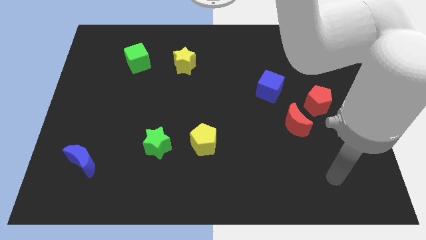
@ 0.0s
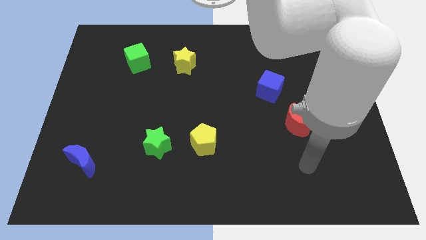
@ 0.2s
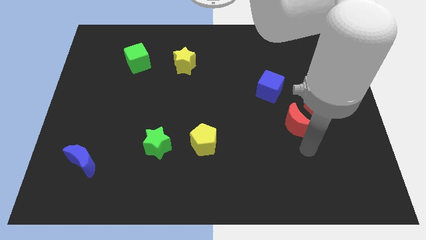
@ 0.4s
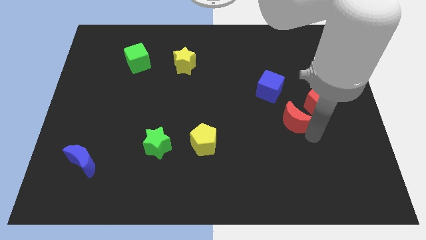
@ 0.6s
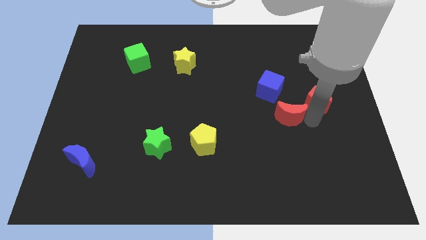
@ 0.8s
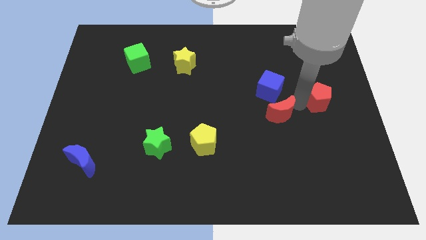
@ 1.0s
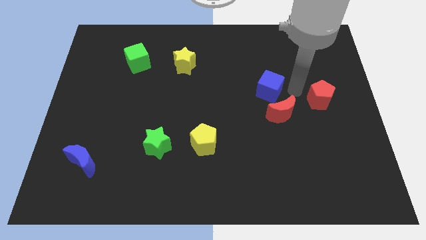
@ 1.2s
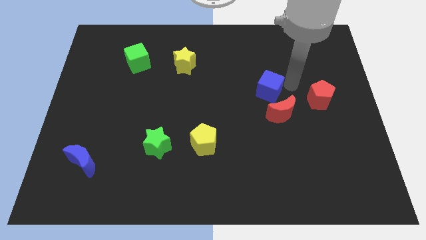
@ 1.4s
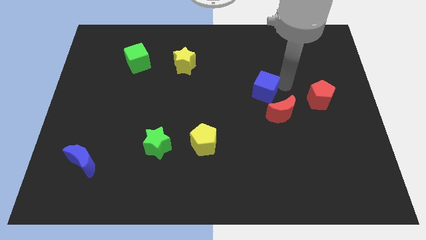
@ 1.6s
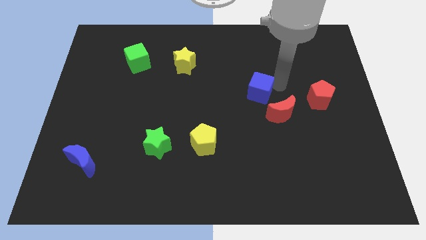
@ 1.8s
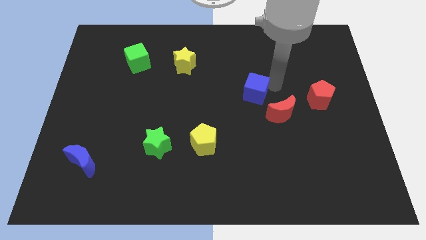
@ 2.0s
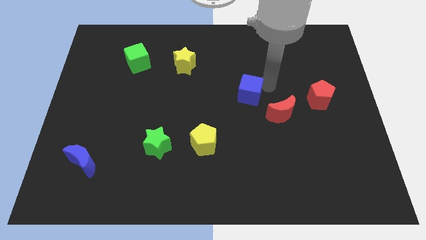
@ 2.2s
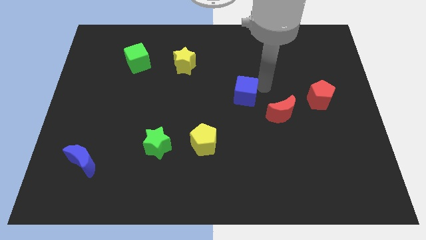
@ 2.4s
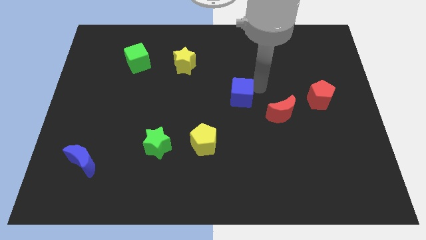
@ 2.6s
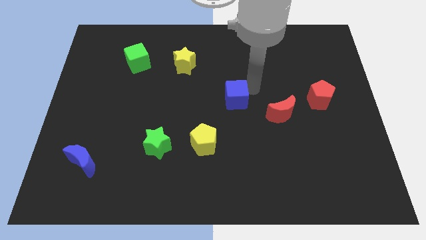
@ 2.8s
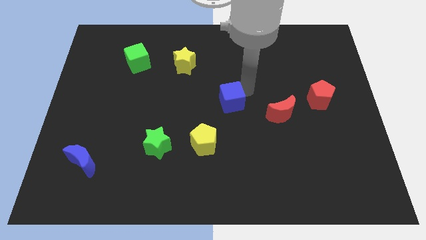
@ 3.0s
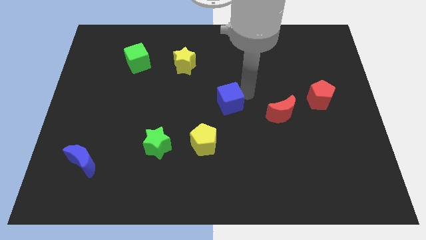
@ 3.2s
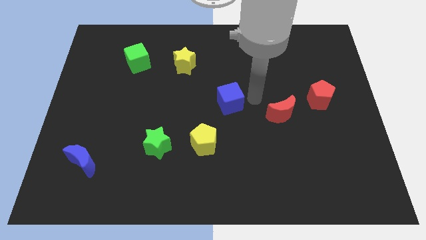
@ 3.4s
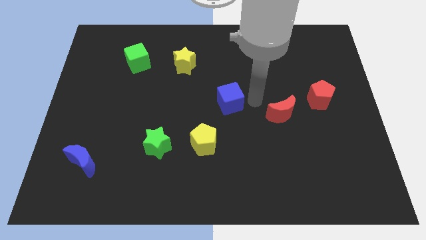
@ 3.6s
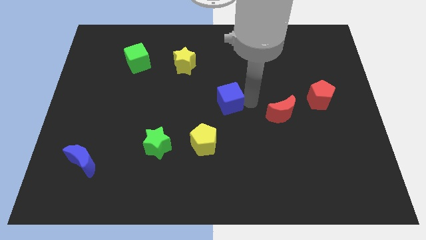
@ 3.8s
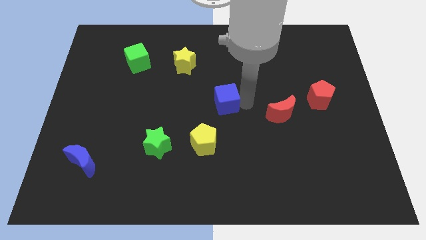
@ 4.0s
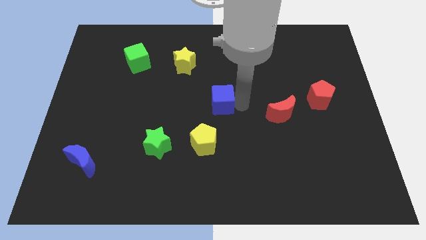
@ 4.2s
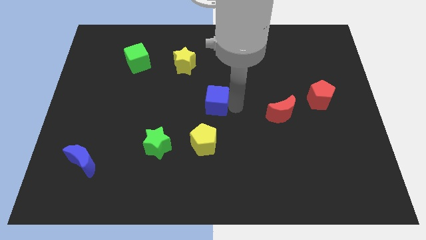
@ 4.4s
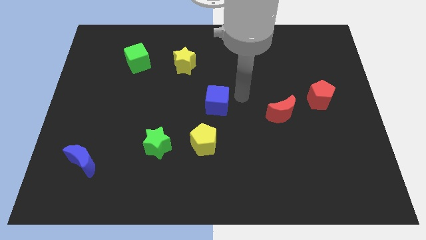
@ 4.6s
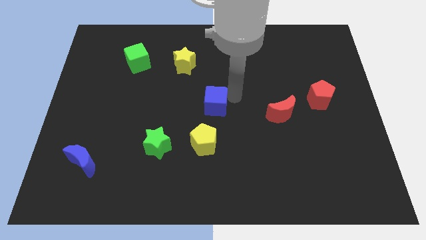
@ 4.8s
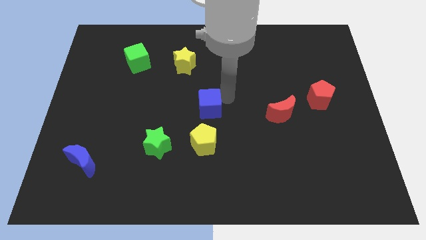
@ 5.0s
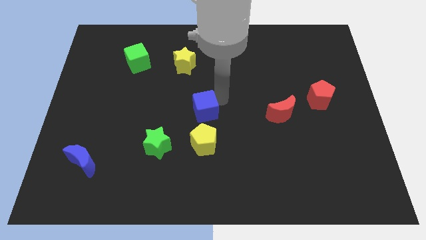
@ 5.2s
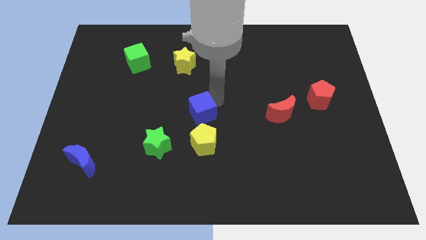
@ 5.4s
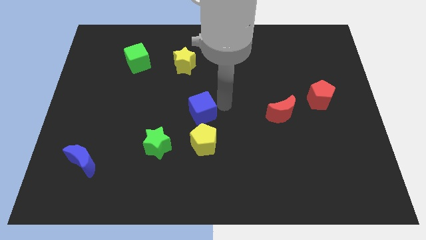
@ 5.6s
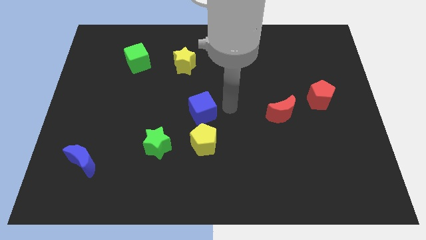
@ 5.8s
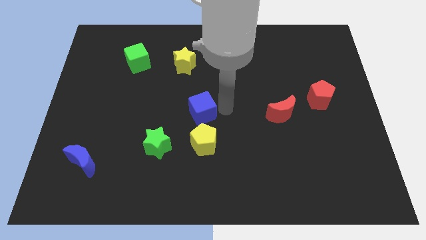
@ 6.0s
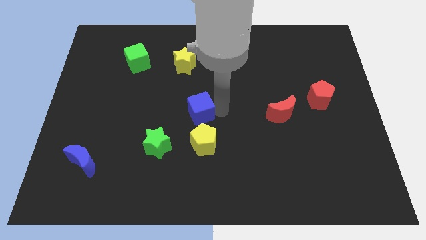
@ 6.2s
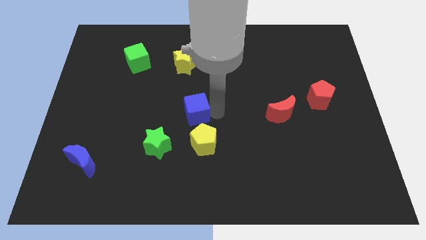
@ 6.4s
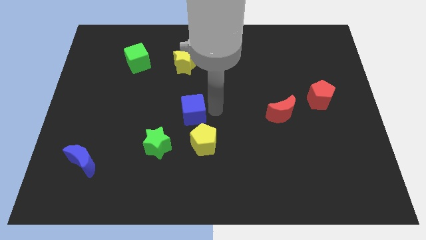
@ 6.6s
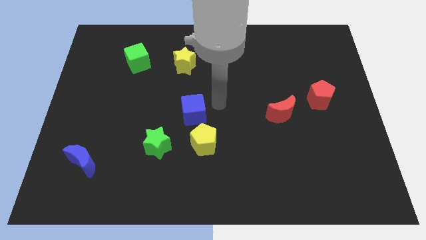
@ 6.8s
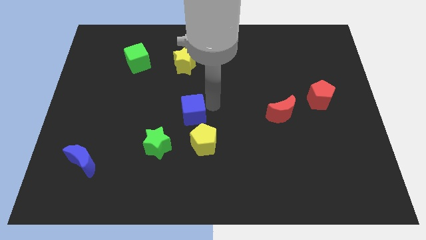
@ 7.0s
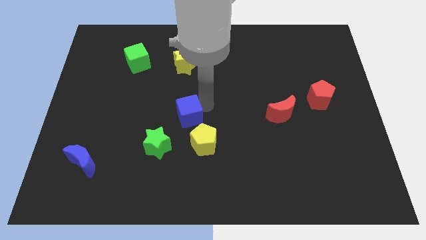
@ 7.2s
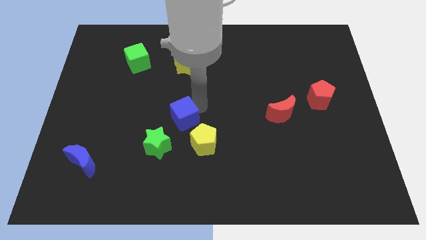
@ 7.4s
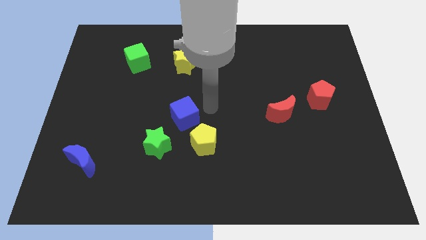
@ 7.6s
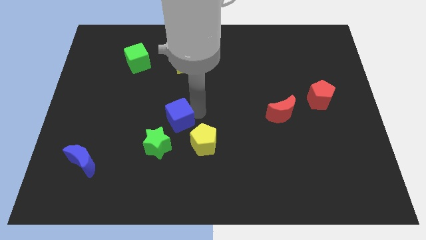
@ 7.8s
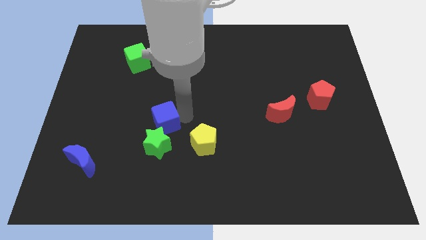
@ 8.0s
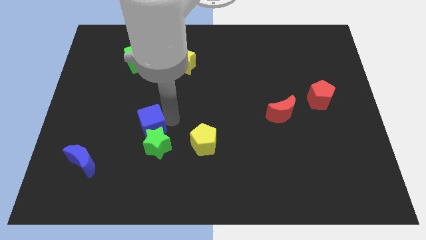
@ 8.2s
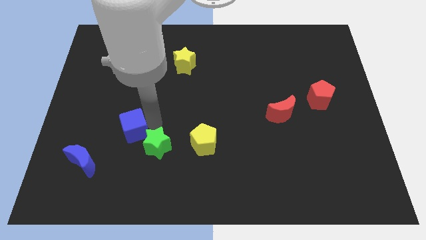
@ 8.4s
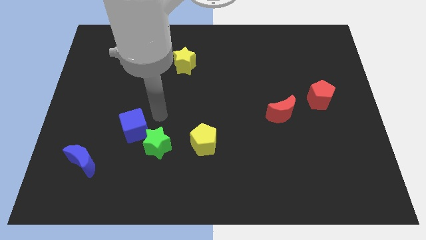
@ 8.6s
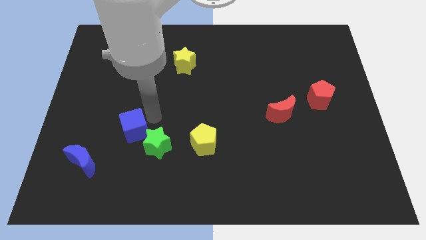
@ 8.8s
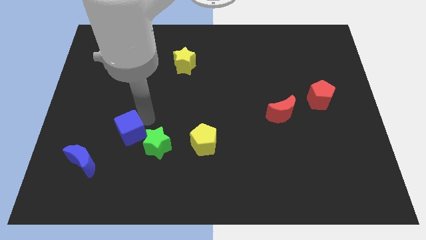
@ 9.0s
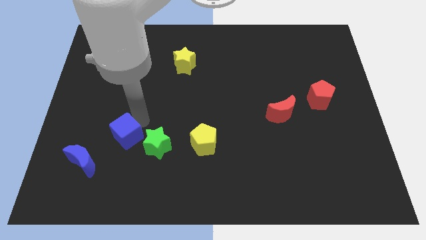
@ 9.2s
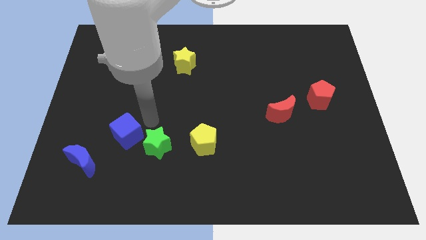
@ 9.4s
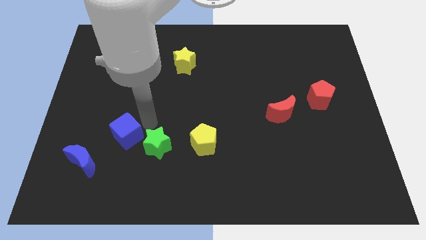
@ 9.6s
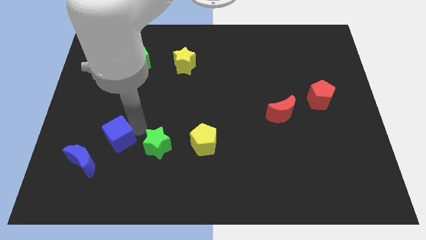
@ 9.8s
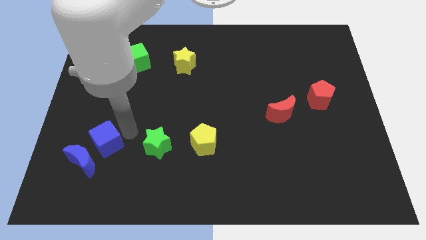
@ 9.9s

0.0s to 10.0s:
move the blue cube next to the blue moon

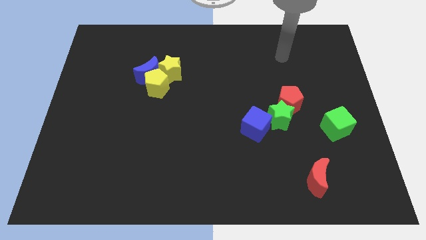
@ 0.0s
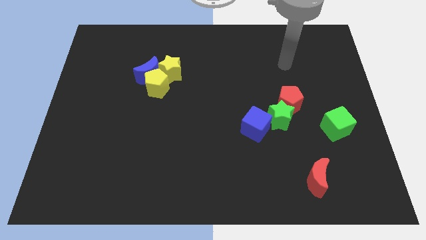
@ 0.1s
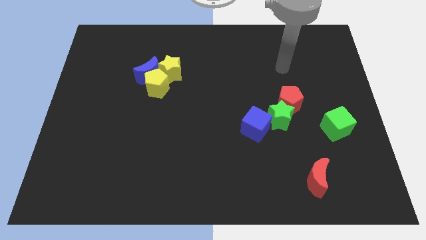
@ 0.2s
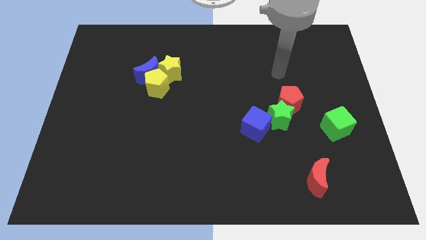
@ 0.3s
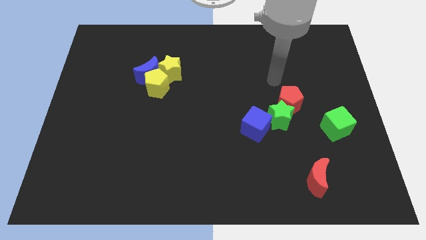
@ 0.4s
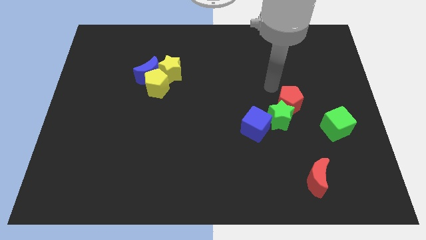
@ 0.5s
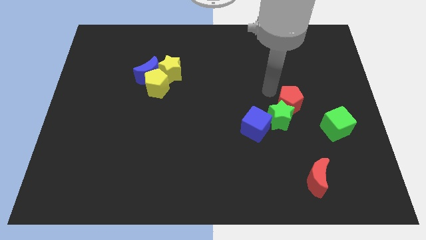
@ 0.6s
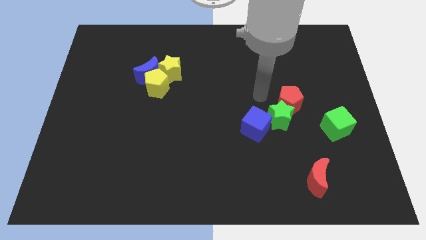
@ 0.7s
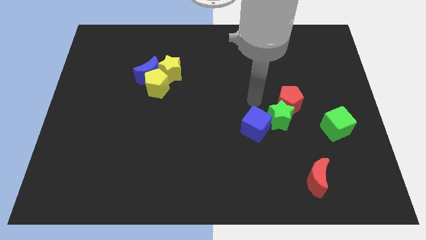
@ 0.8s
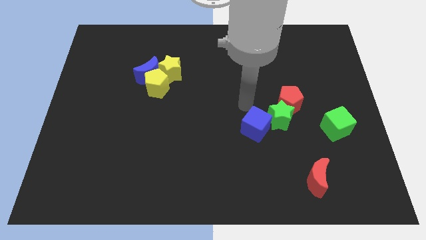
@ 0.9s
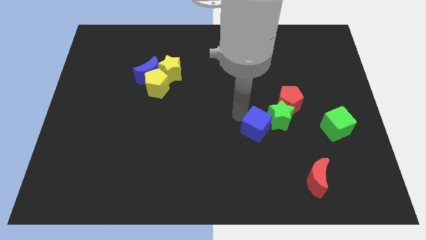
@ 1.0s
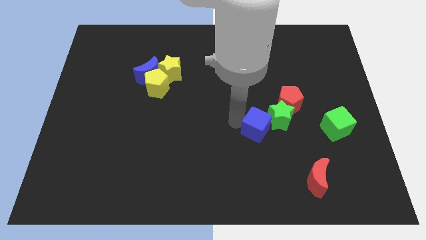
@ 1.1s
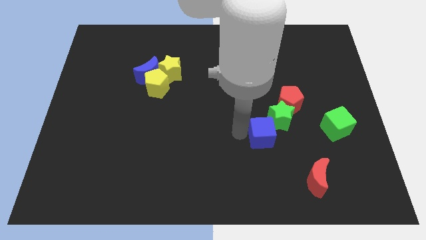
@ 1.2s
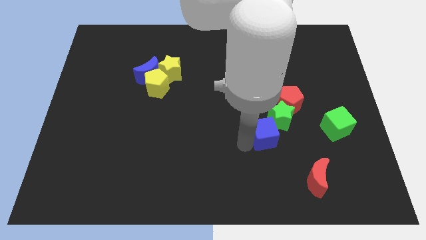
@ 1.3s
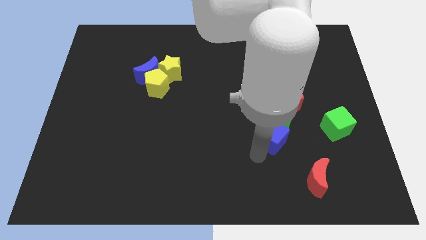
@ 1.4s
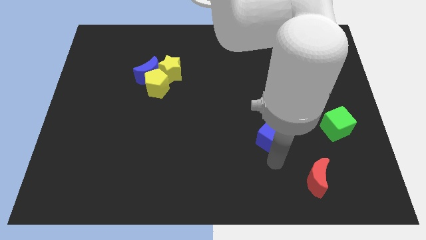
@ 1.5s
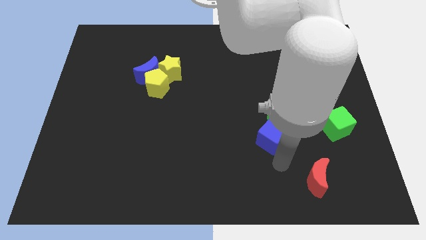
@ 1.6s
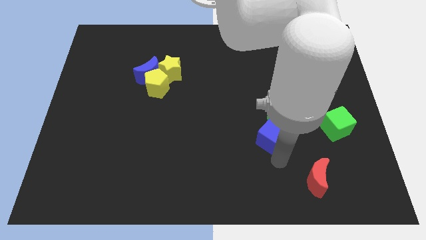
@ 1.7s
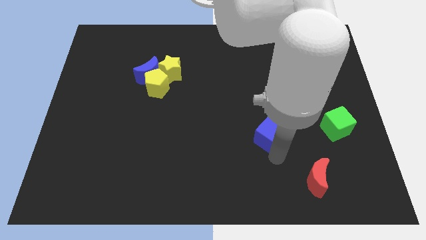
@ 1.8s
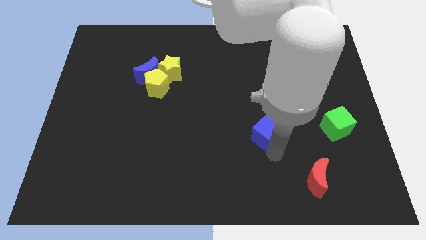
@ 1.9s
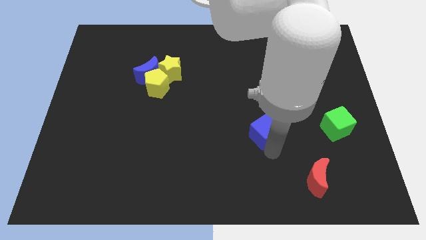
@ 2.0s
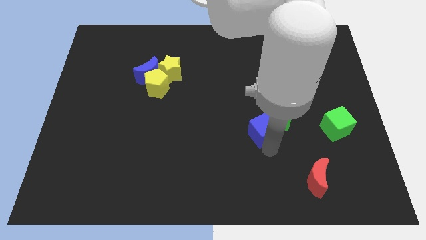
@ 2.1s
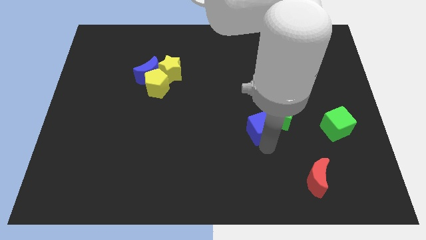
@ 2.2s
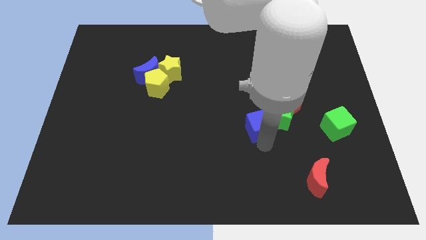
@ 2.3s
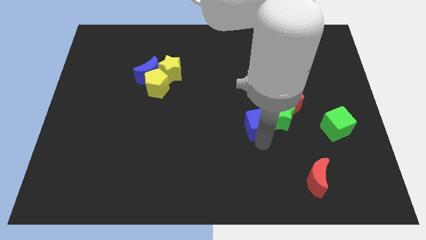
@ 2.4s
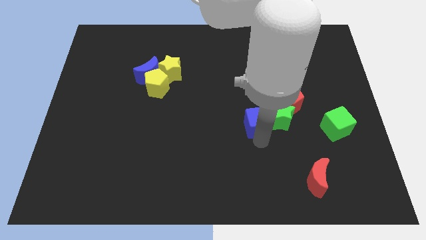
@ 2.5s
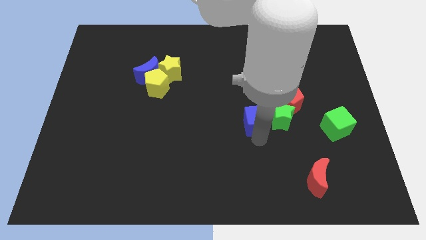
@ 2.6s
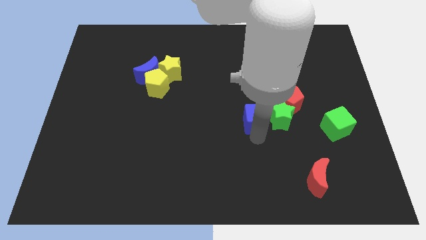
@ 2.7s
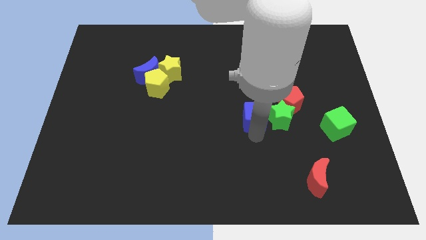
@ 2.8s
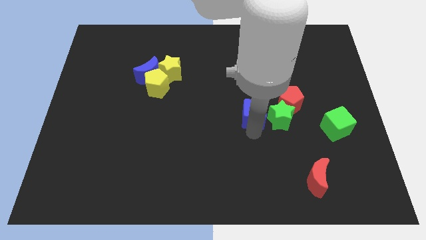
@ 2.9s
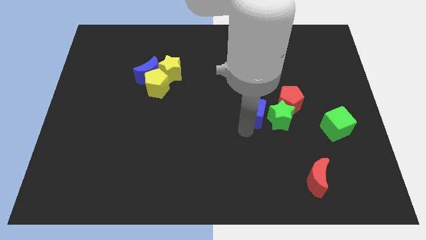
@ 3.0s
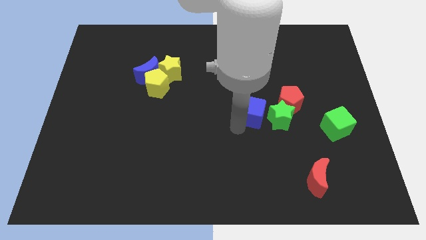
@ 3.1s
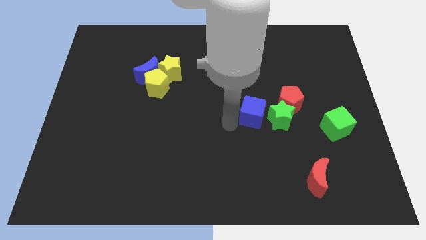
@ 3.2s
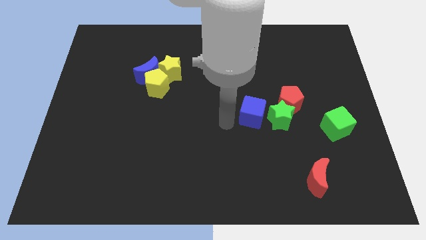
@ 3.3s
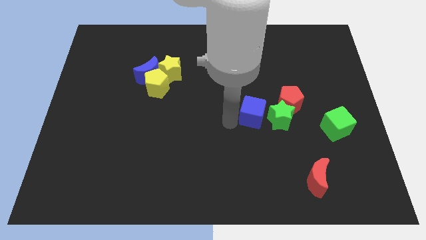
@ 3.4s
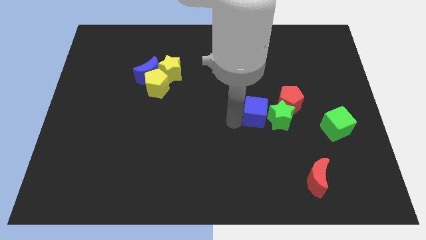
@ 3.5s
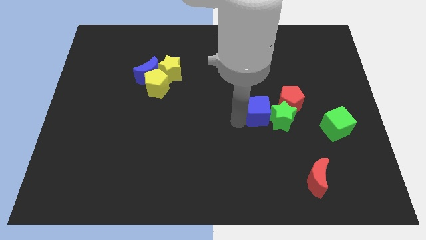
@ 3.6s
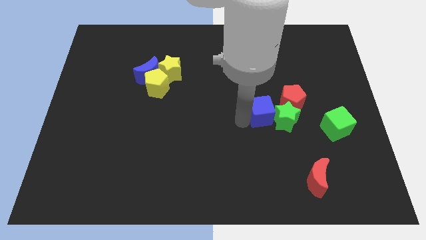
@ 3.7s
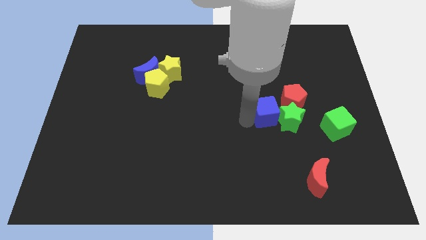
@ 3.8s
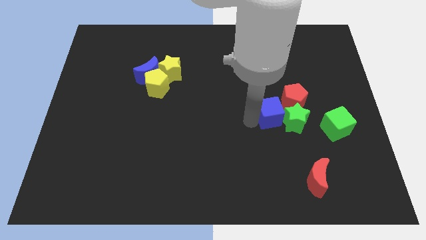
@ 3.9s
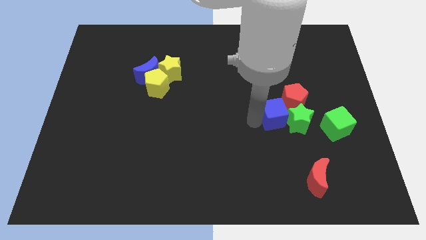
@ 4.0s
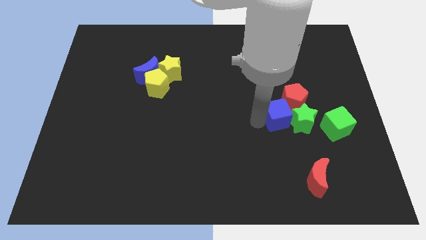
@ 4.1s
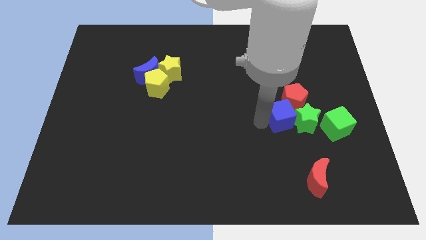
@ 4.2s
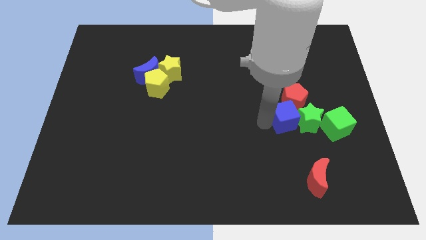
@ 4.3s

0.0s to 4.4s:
slide the blue cube close to the red pentagon
